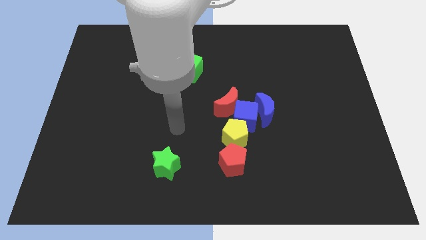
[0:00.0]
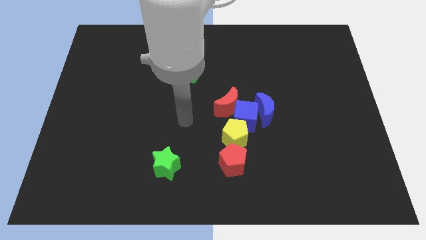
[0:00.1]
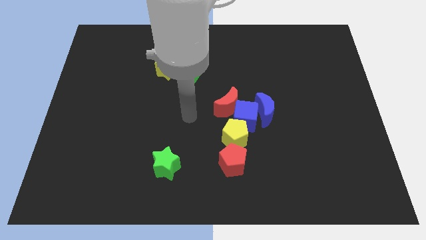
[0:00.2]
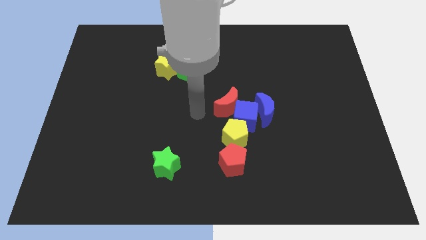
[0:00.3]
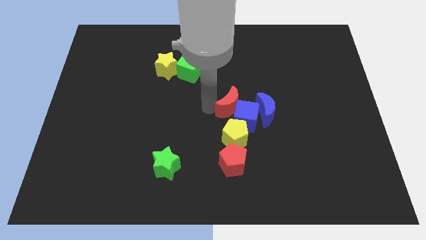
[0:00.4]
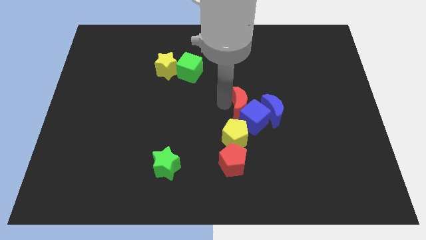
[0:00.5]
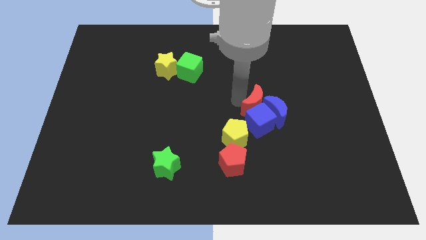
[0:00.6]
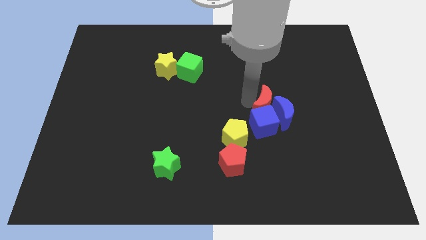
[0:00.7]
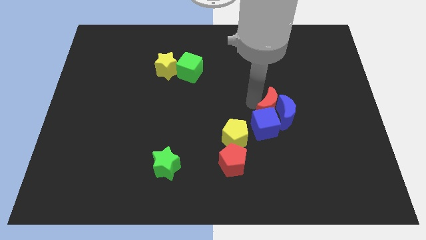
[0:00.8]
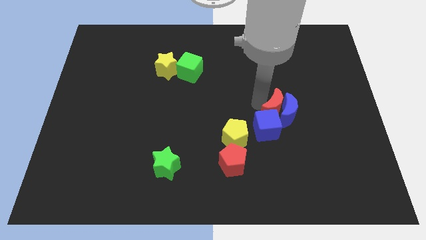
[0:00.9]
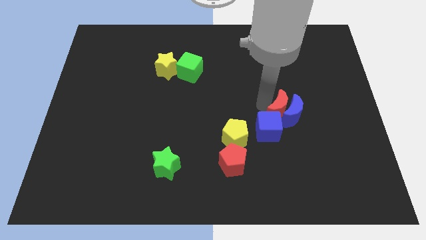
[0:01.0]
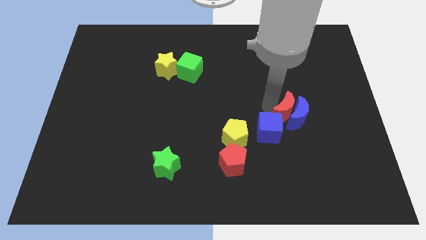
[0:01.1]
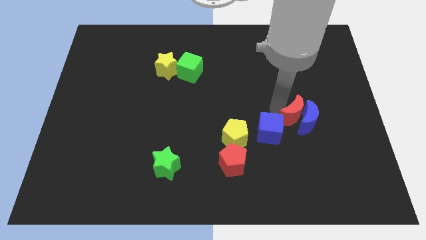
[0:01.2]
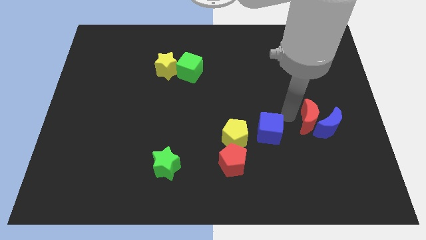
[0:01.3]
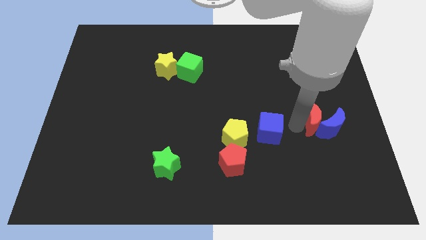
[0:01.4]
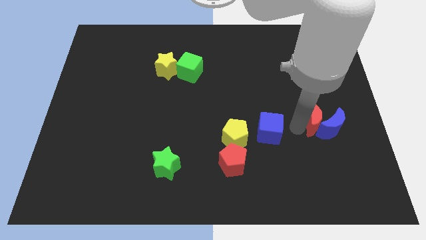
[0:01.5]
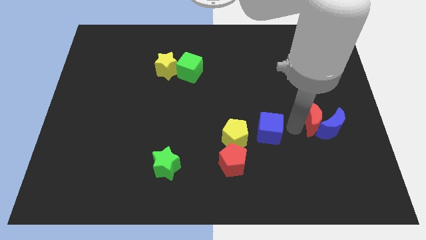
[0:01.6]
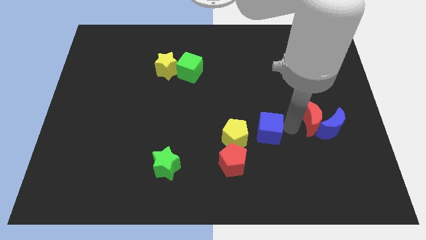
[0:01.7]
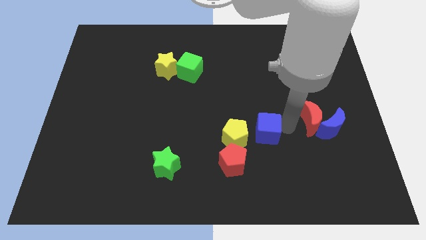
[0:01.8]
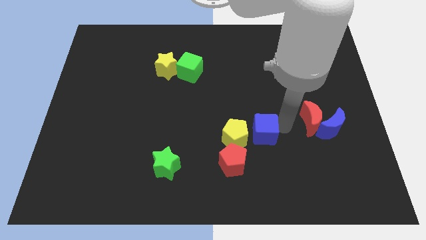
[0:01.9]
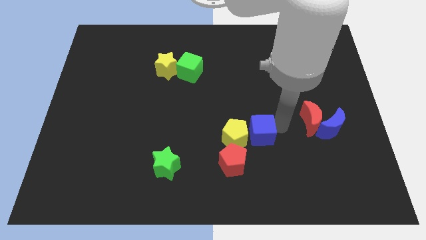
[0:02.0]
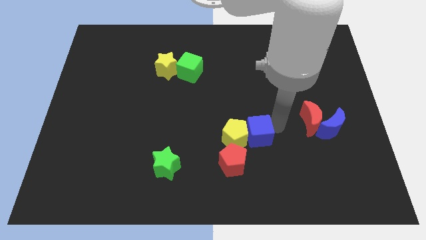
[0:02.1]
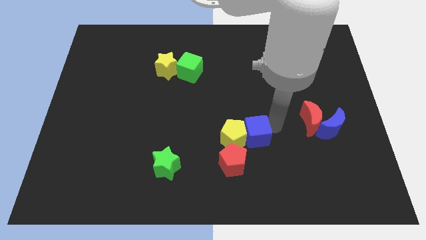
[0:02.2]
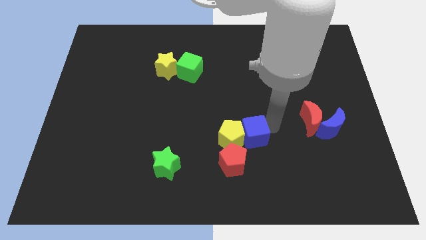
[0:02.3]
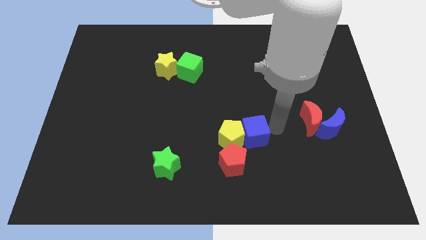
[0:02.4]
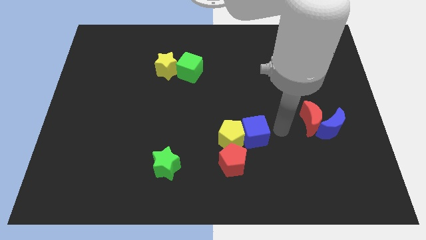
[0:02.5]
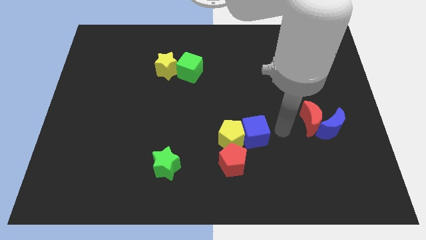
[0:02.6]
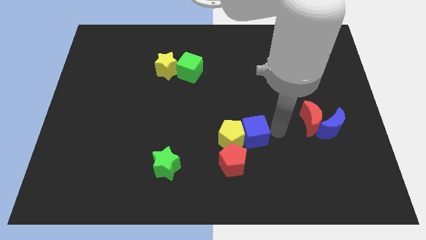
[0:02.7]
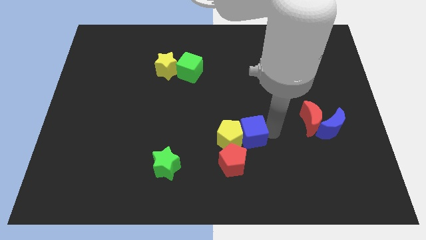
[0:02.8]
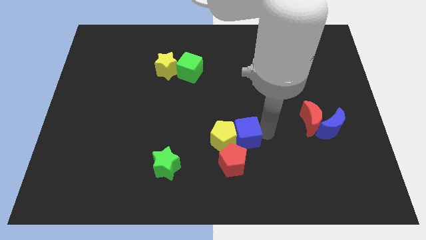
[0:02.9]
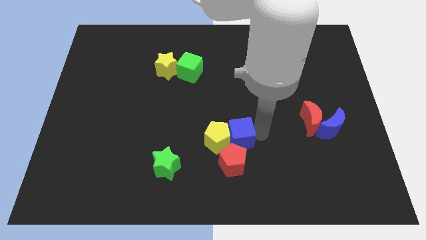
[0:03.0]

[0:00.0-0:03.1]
separate the blue cube from the red moon, blue moon, and yellow pentagon

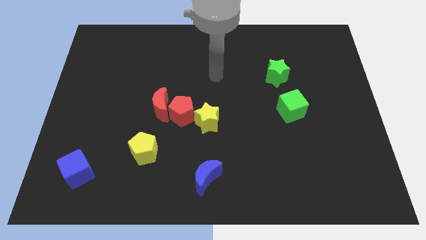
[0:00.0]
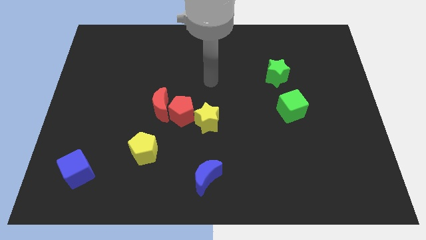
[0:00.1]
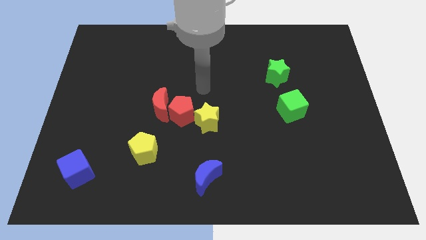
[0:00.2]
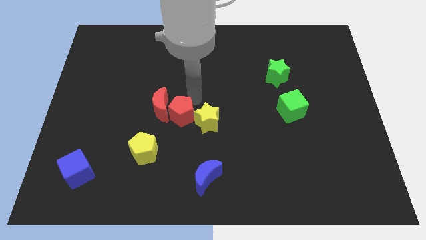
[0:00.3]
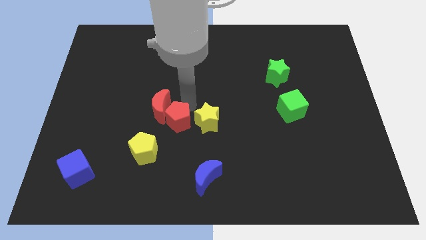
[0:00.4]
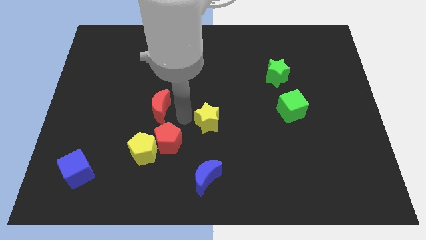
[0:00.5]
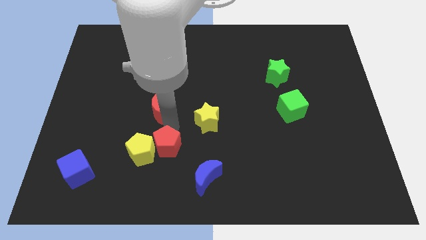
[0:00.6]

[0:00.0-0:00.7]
separate the red moon from the red pentagon

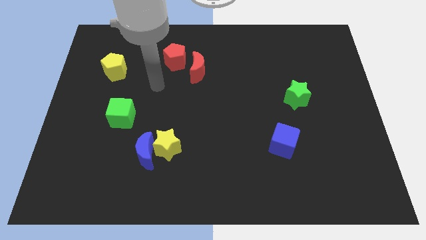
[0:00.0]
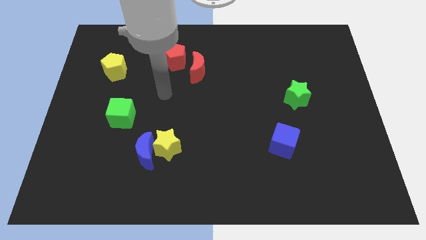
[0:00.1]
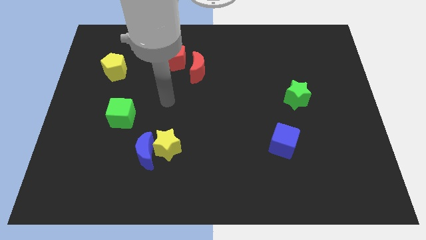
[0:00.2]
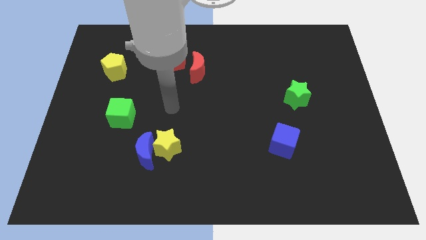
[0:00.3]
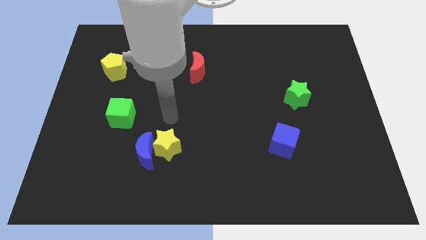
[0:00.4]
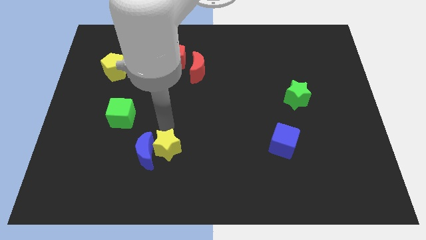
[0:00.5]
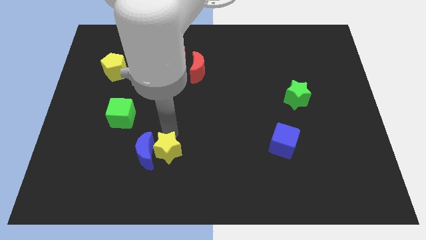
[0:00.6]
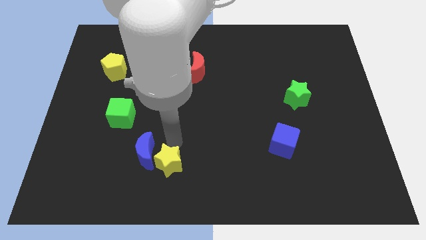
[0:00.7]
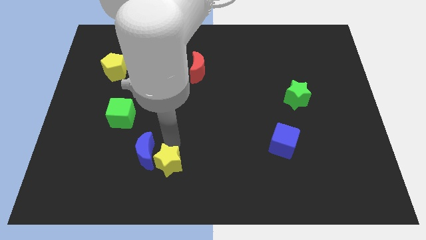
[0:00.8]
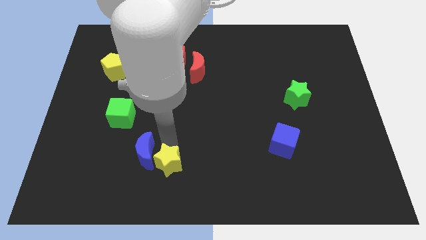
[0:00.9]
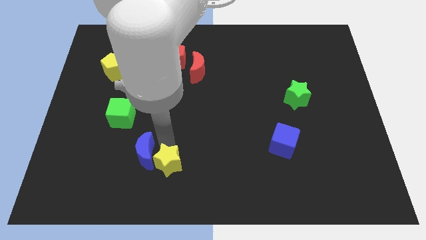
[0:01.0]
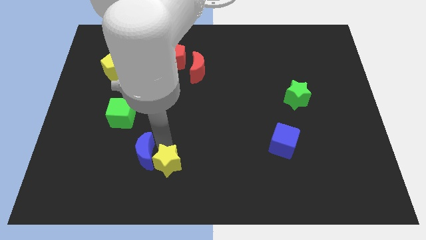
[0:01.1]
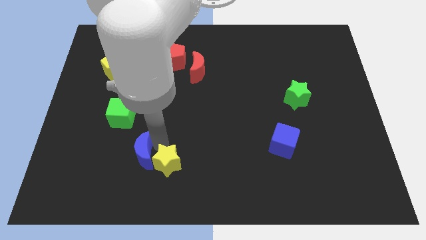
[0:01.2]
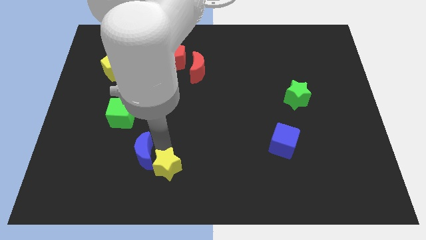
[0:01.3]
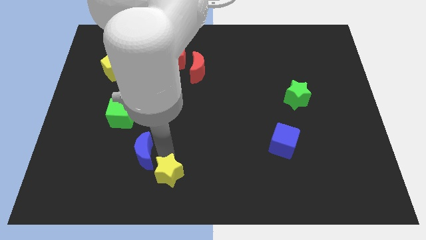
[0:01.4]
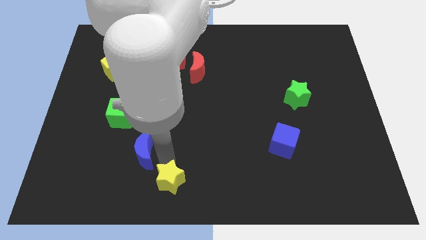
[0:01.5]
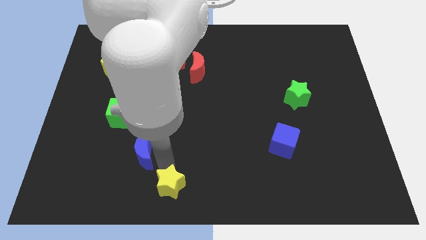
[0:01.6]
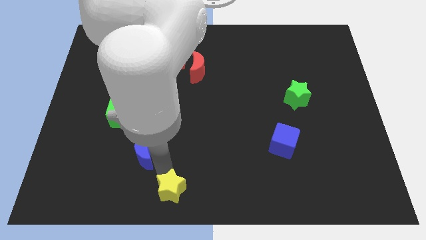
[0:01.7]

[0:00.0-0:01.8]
separate the blue moon from the yellow star

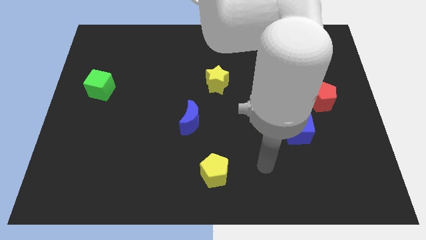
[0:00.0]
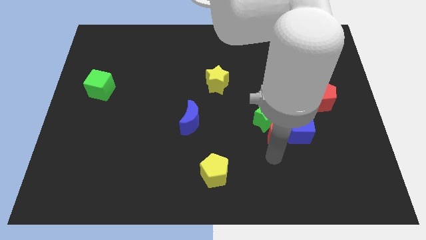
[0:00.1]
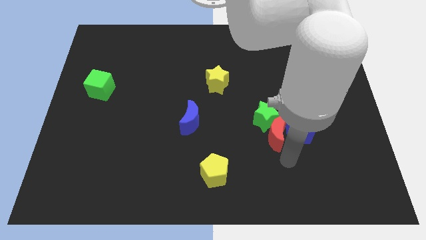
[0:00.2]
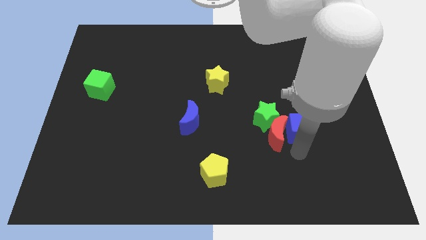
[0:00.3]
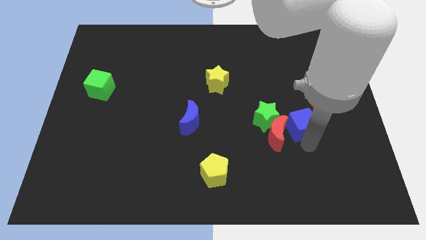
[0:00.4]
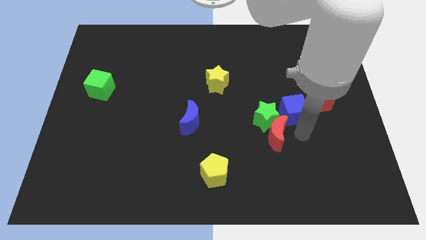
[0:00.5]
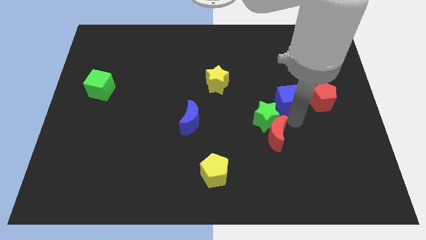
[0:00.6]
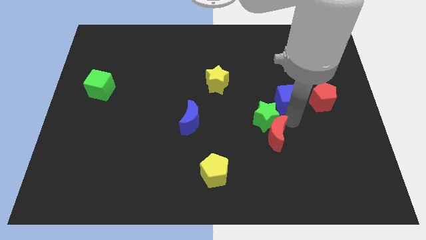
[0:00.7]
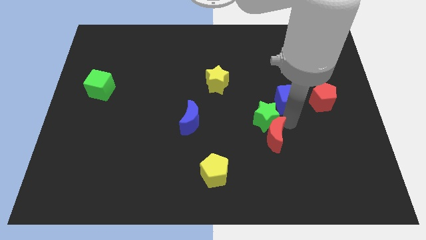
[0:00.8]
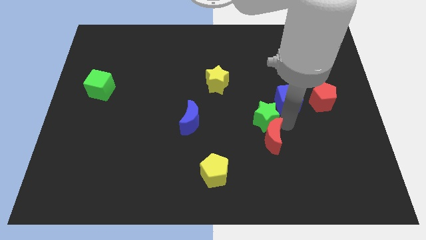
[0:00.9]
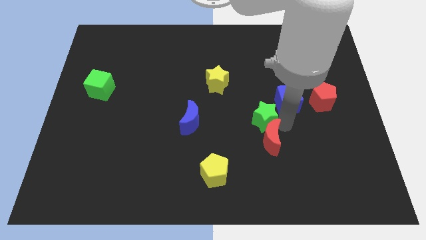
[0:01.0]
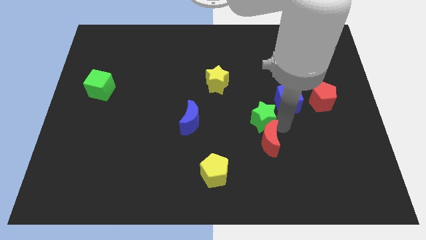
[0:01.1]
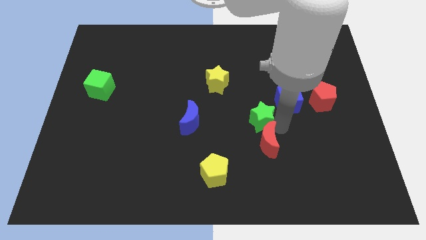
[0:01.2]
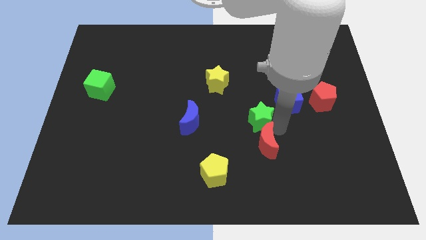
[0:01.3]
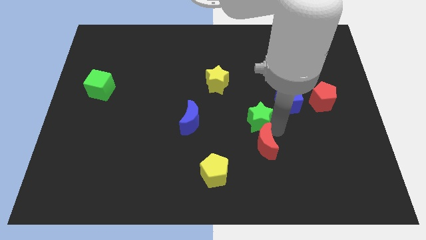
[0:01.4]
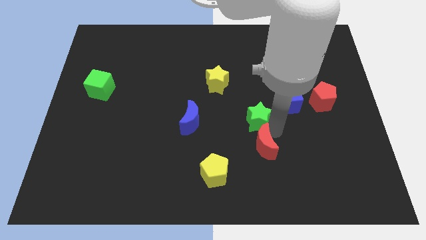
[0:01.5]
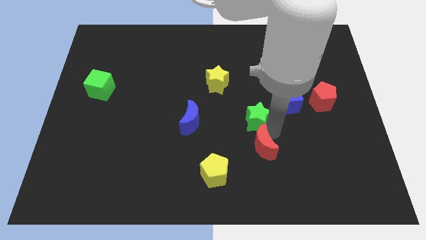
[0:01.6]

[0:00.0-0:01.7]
move the red moon away from the green star and blue cube

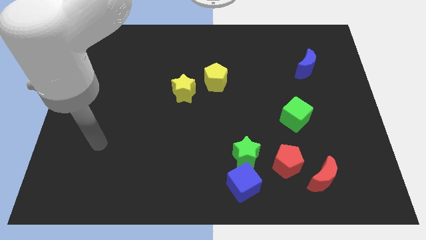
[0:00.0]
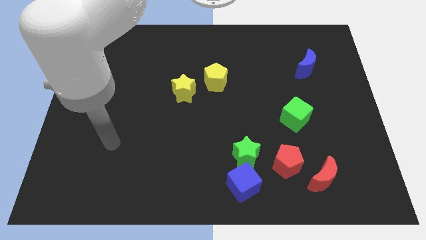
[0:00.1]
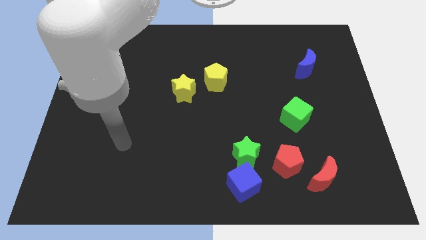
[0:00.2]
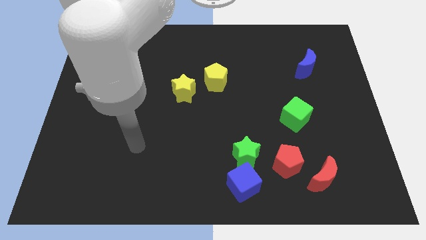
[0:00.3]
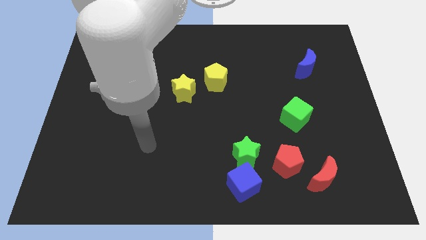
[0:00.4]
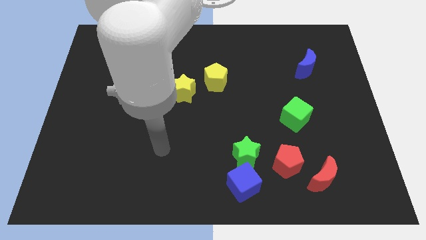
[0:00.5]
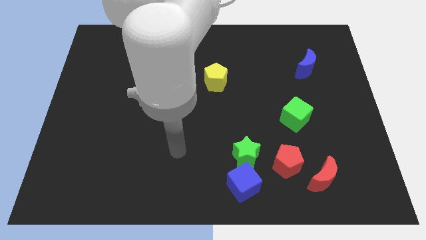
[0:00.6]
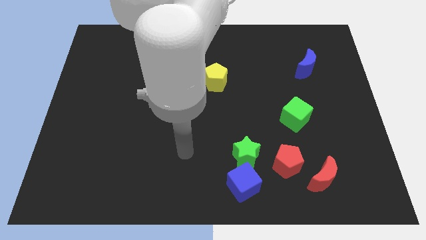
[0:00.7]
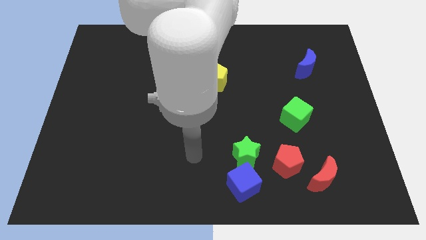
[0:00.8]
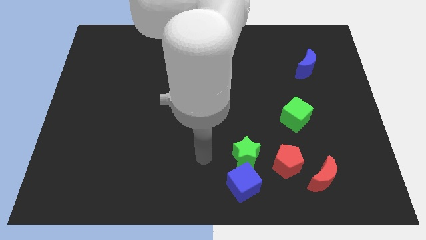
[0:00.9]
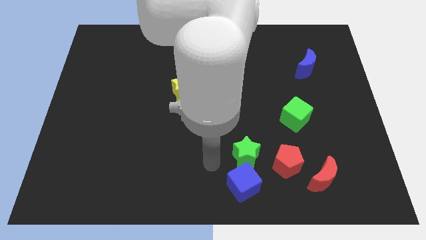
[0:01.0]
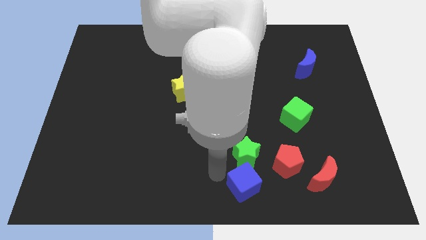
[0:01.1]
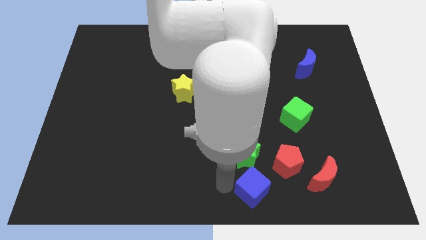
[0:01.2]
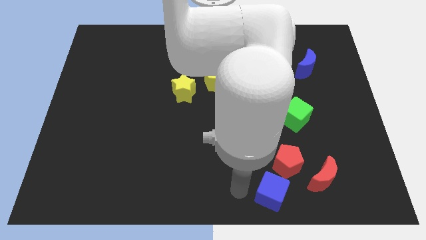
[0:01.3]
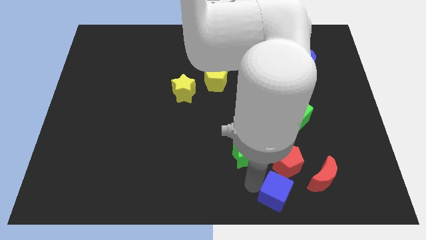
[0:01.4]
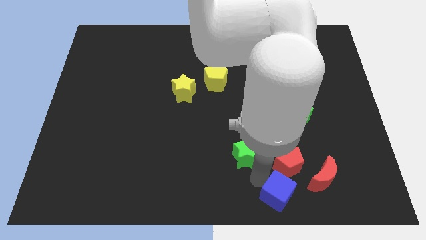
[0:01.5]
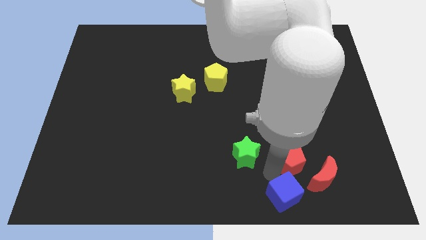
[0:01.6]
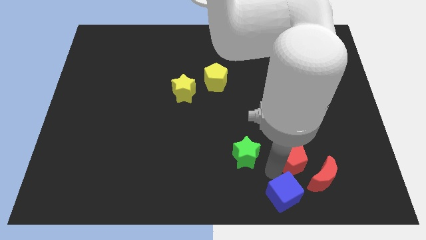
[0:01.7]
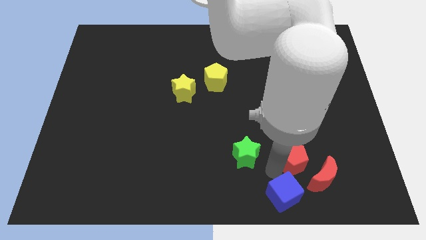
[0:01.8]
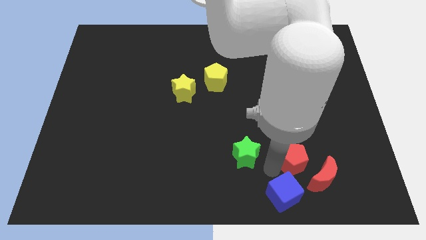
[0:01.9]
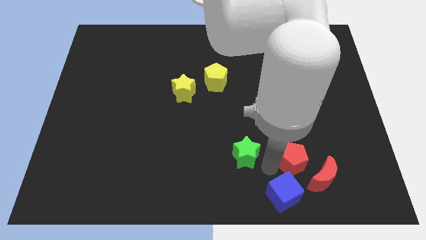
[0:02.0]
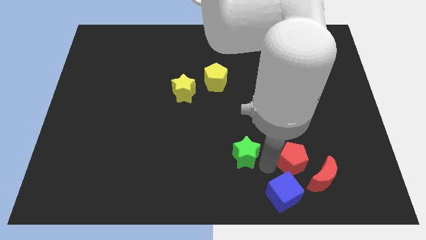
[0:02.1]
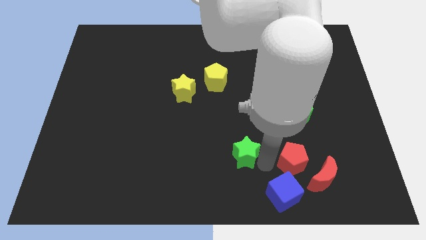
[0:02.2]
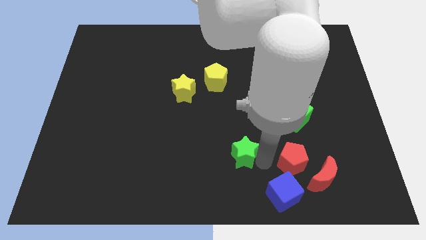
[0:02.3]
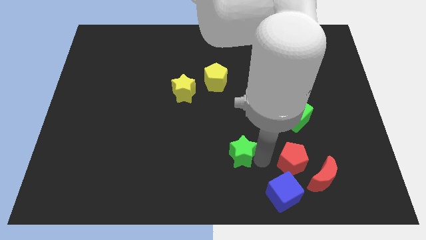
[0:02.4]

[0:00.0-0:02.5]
separate the green star from the blue cube and red pentagon
